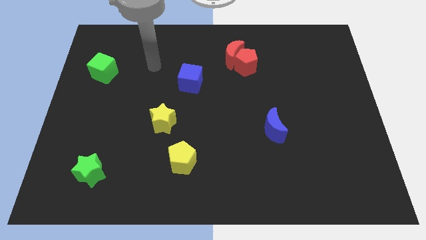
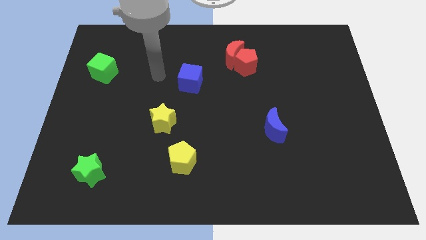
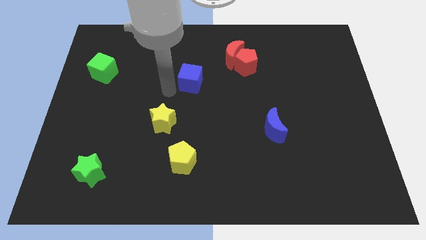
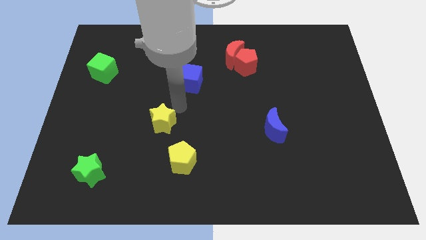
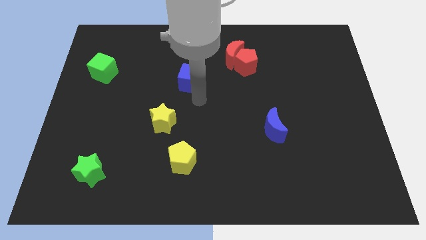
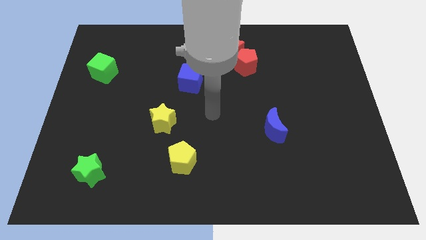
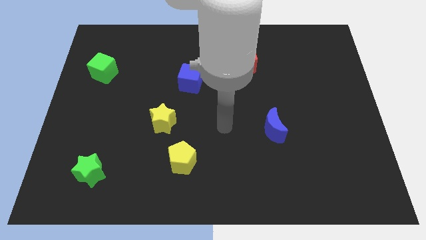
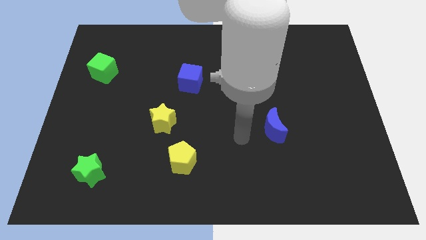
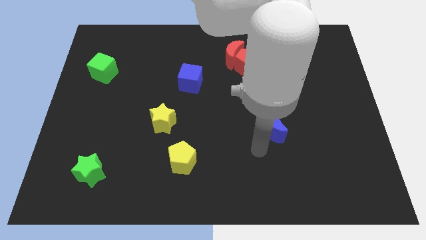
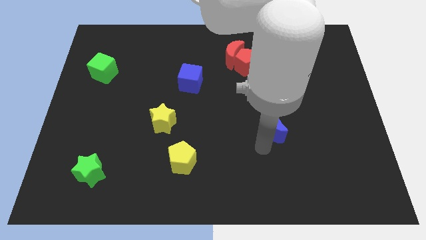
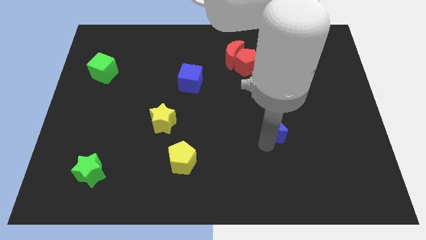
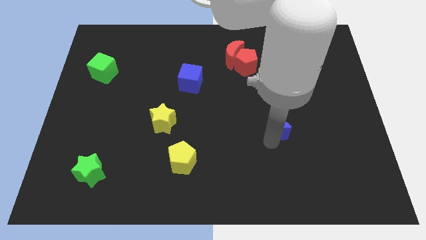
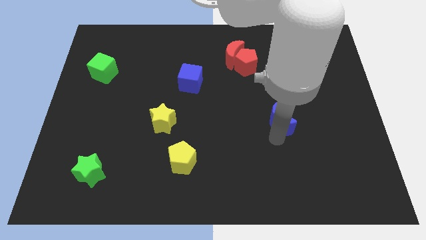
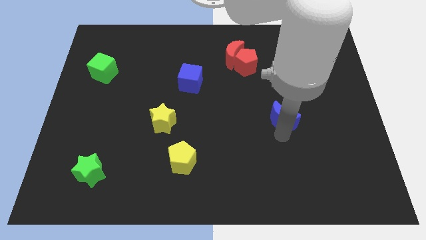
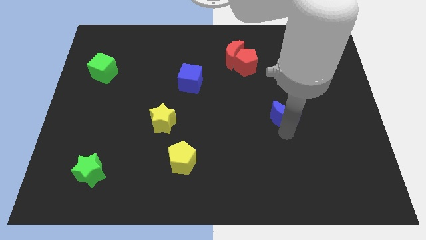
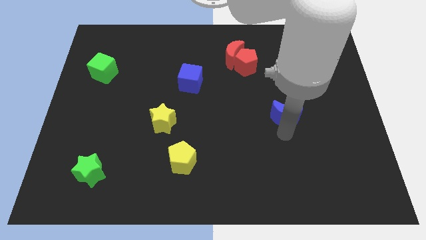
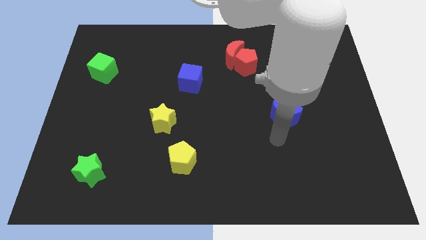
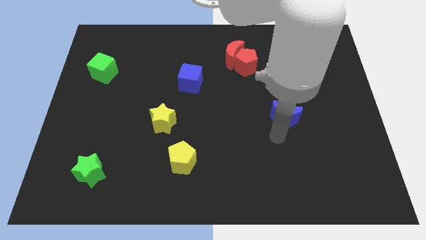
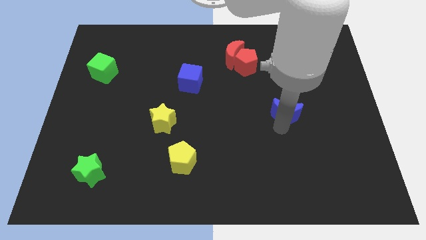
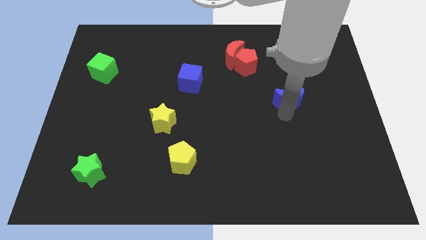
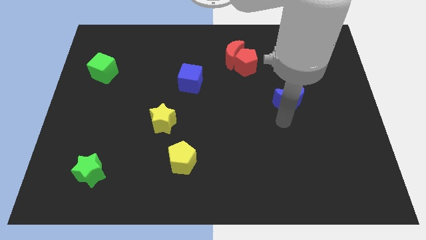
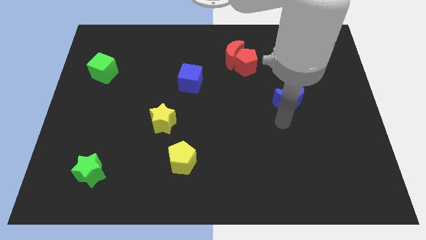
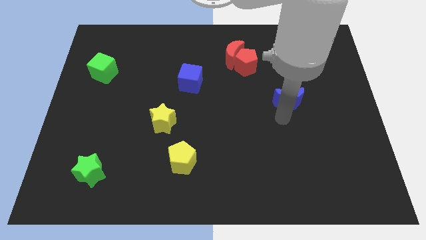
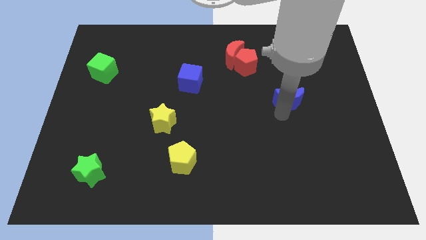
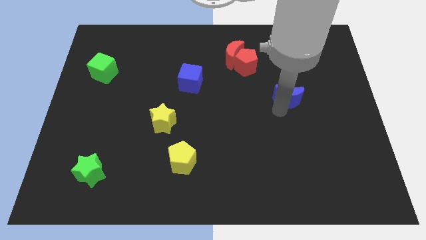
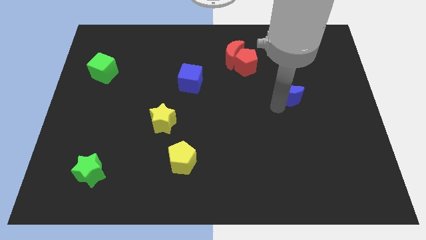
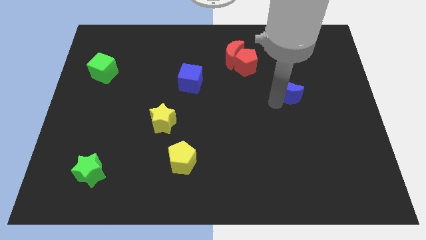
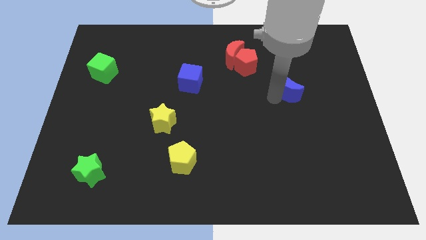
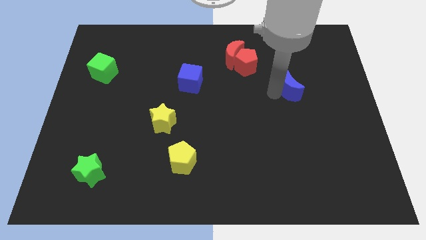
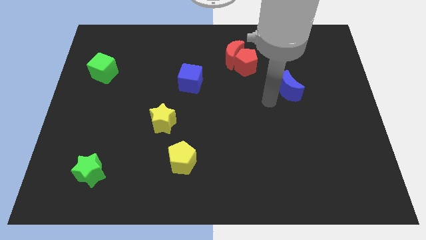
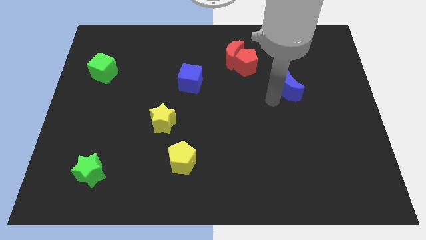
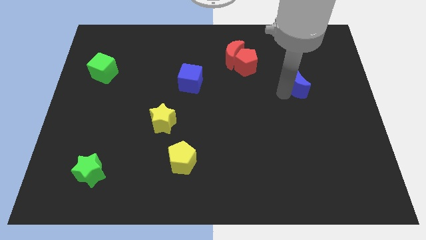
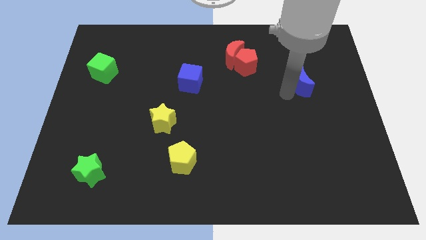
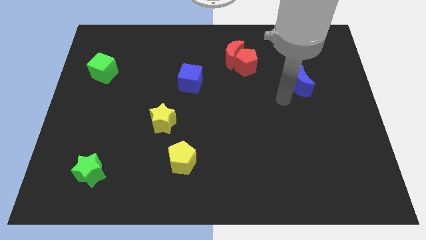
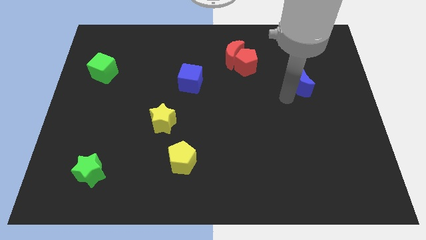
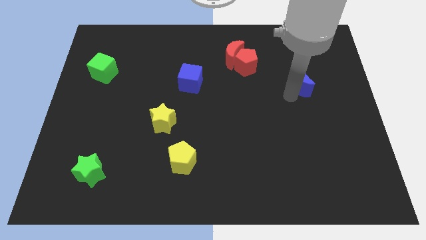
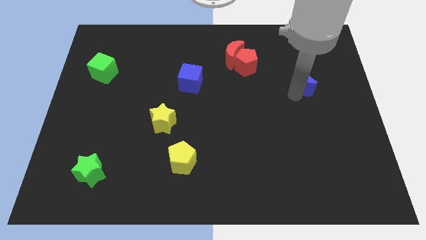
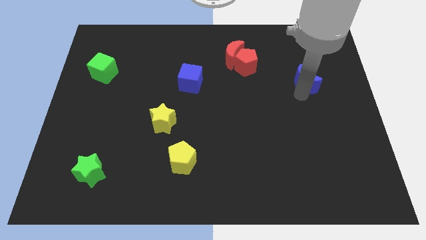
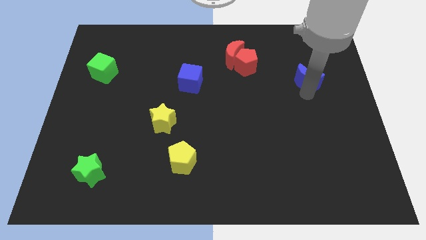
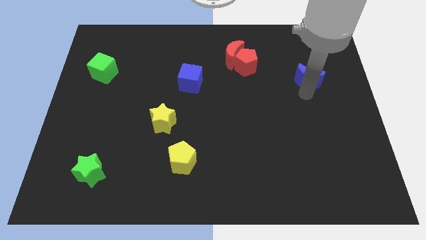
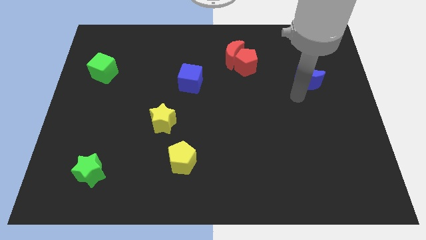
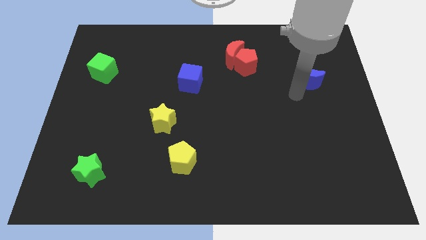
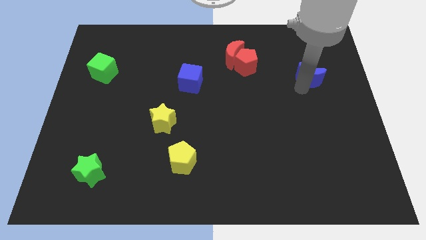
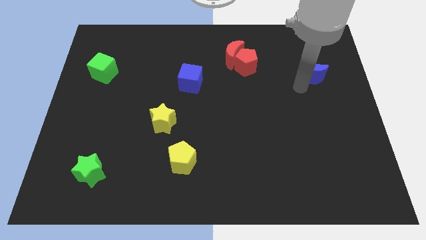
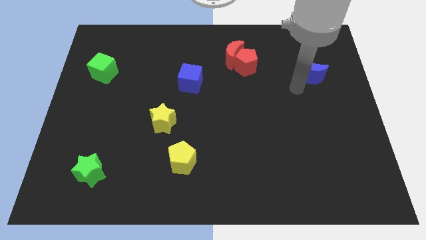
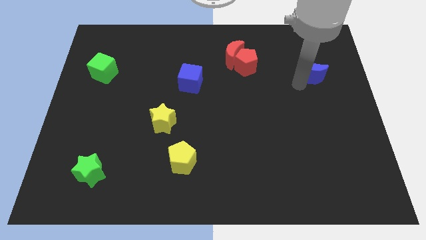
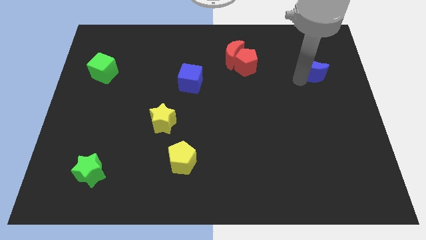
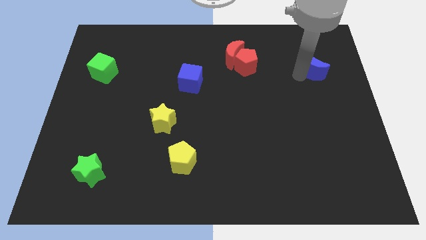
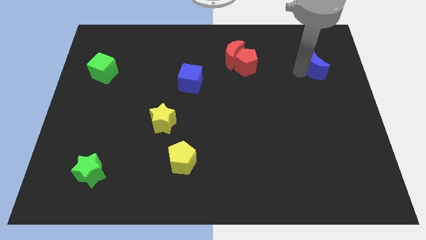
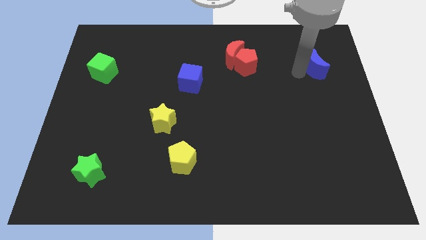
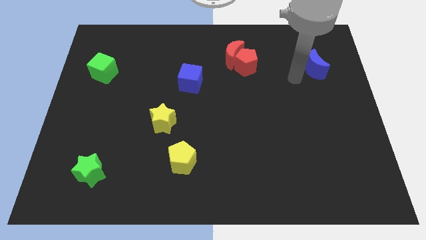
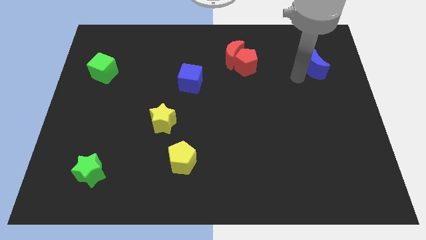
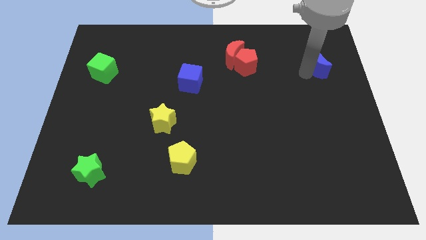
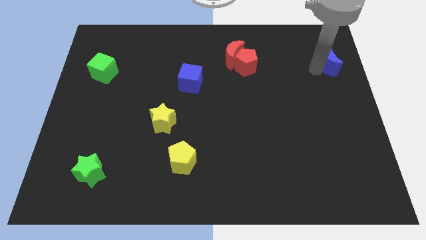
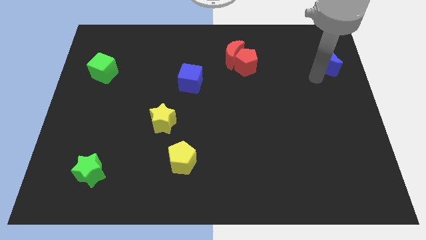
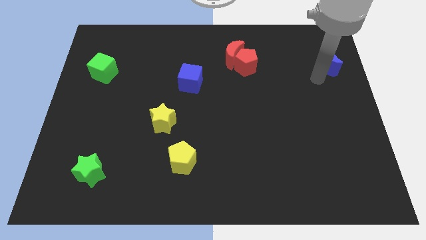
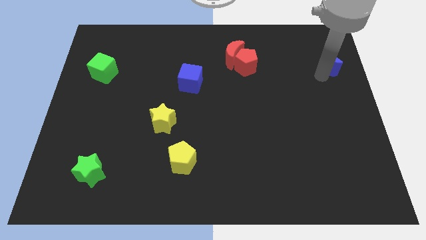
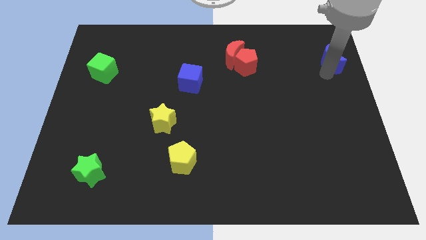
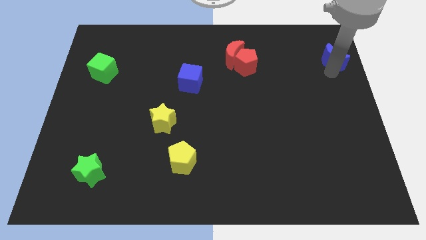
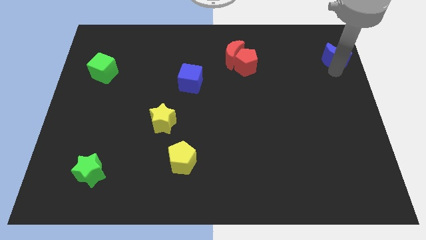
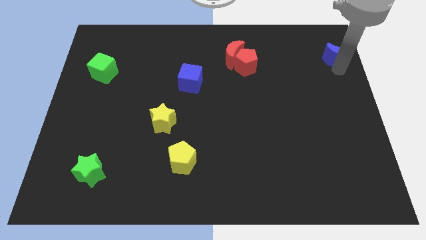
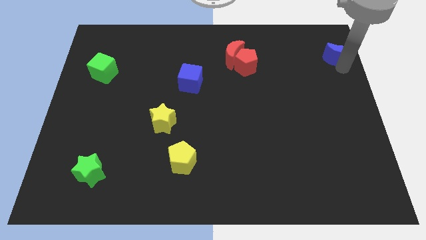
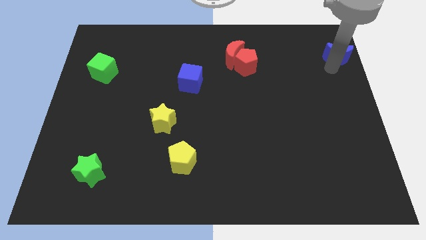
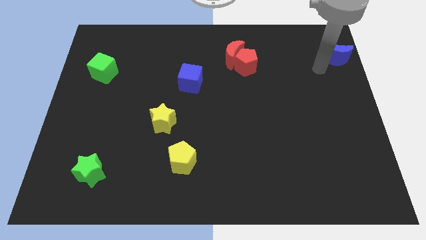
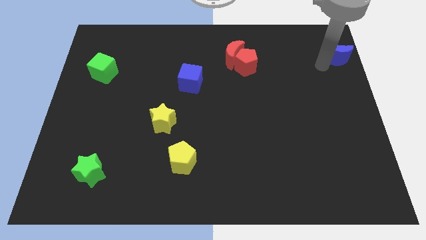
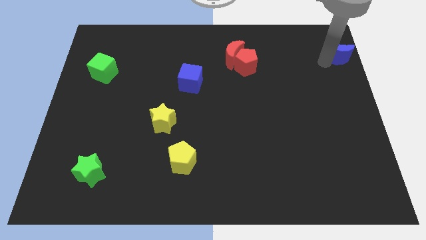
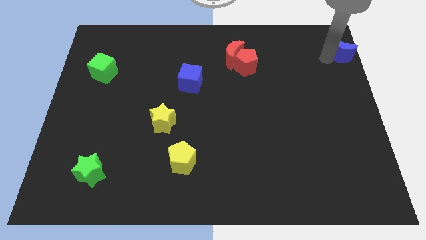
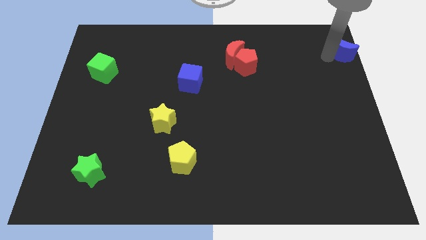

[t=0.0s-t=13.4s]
push the blue moon to the top right
